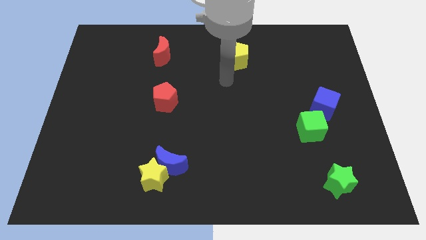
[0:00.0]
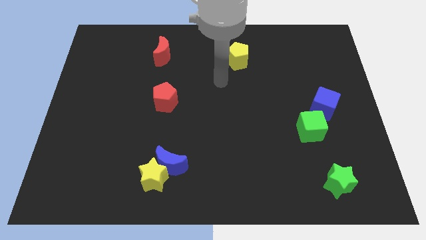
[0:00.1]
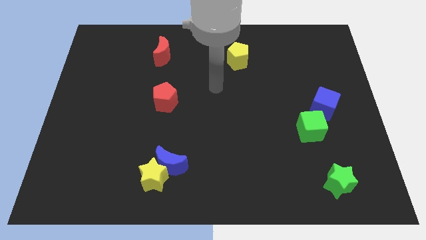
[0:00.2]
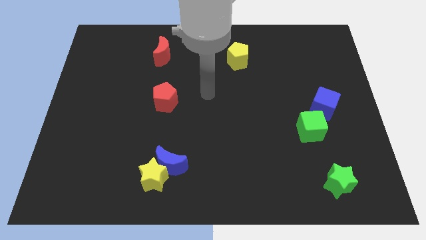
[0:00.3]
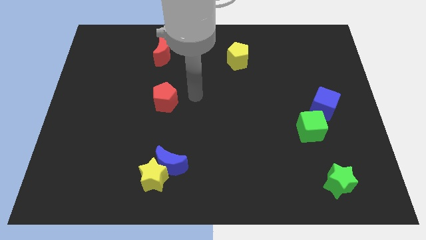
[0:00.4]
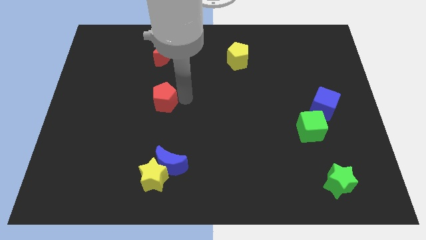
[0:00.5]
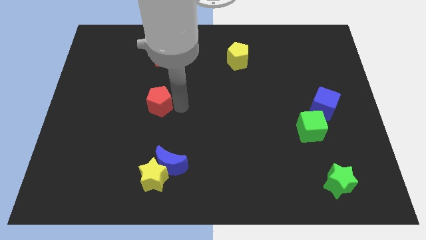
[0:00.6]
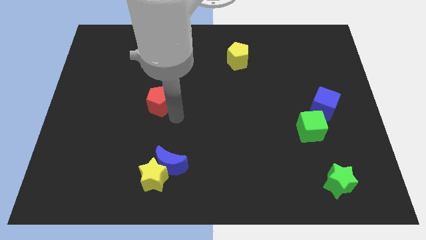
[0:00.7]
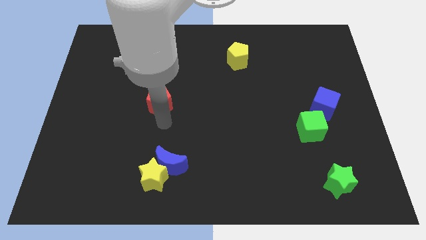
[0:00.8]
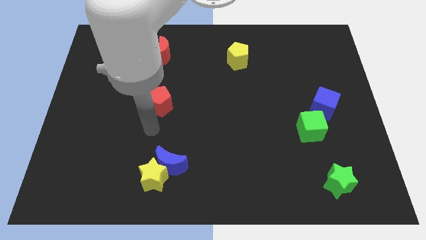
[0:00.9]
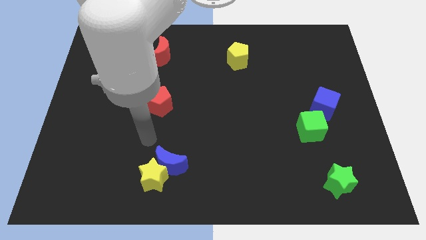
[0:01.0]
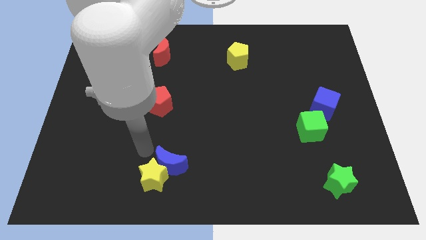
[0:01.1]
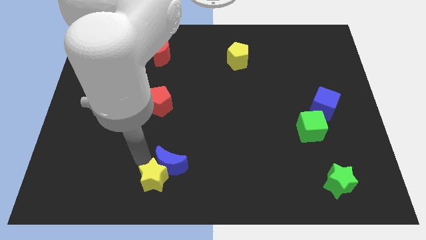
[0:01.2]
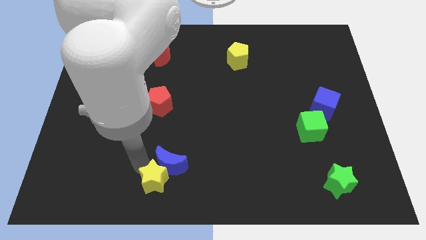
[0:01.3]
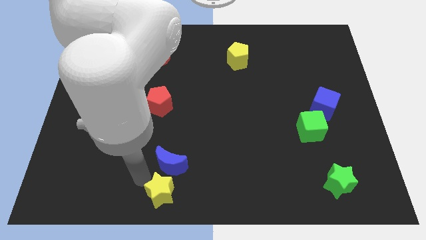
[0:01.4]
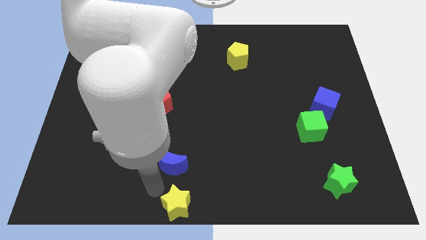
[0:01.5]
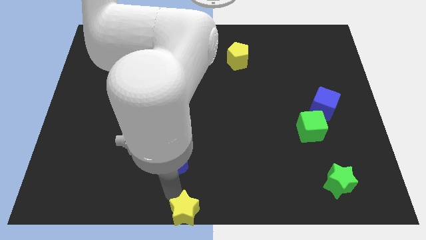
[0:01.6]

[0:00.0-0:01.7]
move the blue moon away from the yellow star

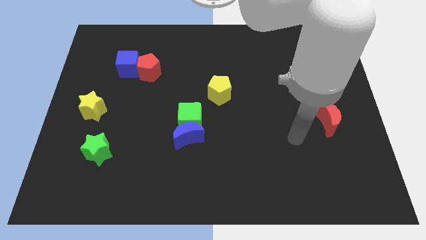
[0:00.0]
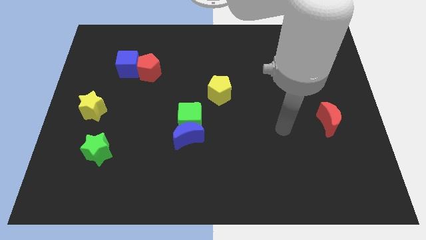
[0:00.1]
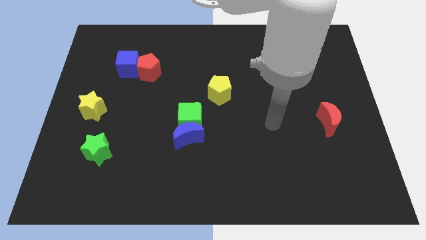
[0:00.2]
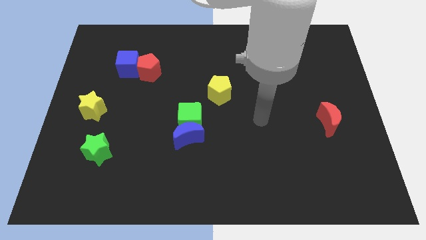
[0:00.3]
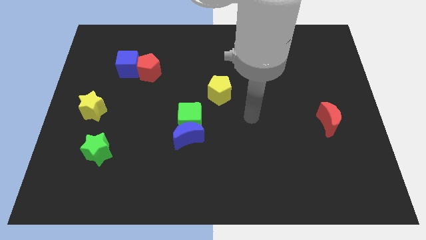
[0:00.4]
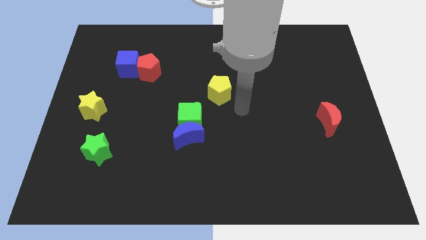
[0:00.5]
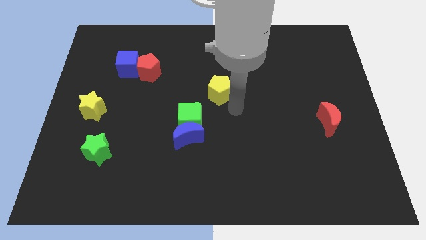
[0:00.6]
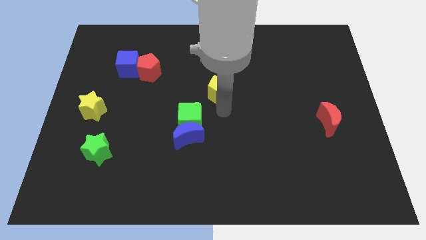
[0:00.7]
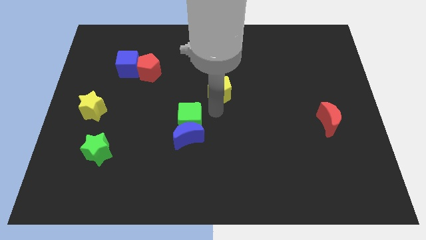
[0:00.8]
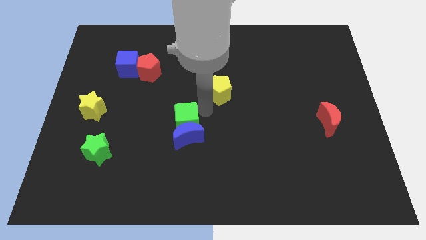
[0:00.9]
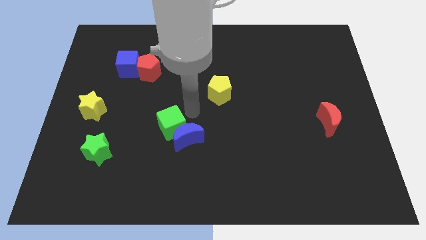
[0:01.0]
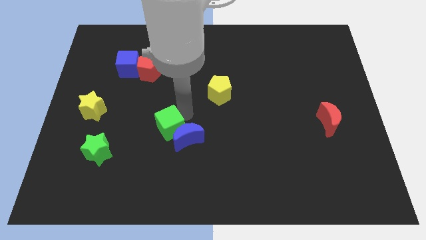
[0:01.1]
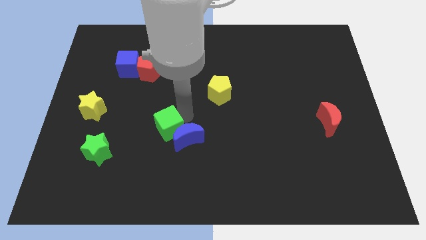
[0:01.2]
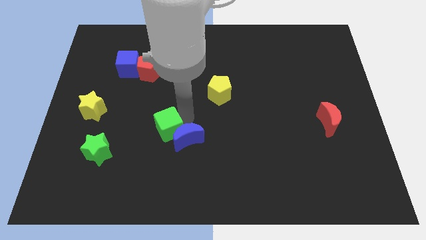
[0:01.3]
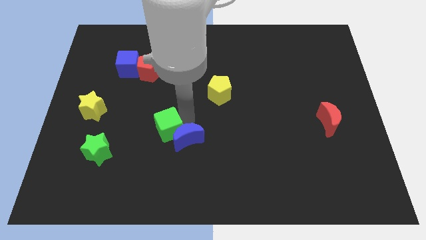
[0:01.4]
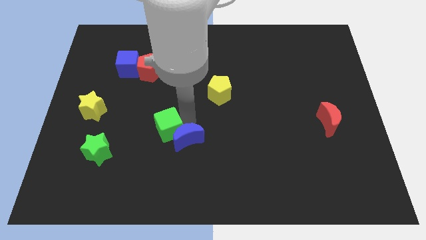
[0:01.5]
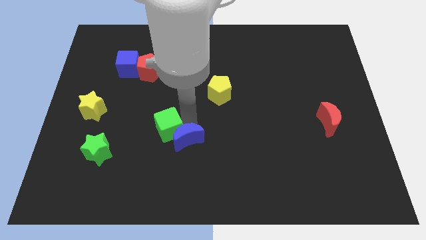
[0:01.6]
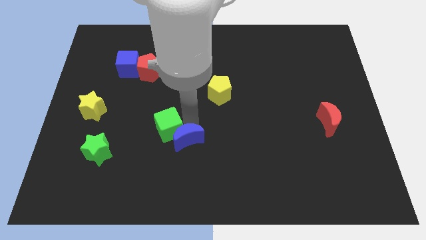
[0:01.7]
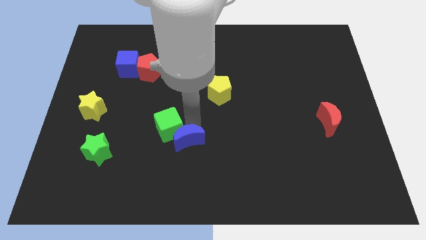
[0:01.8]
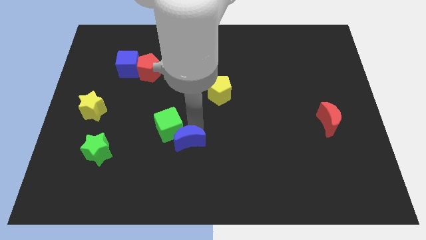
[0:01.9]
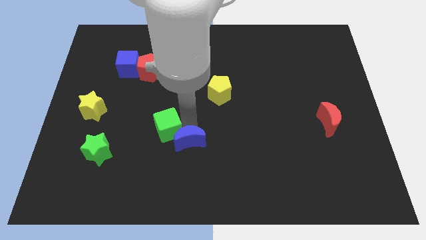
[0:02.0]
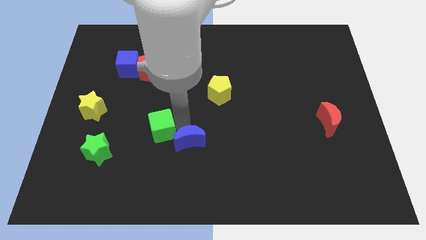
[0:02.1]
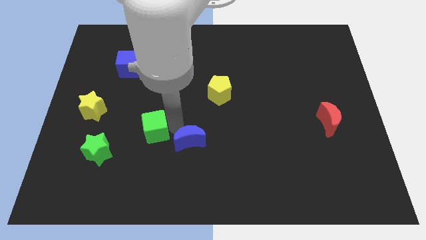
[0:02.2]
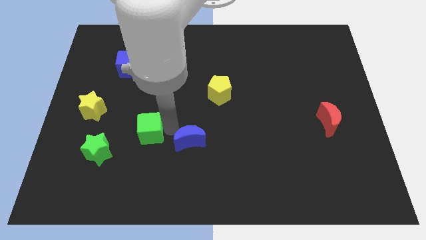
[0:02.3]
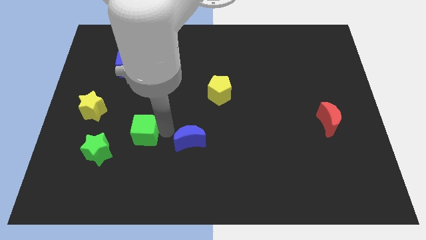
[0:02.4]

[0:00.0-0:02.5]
move the blue moon away from the green cube

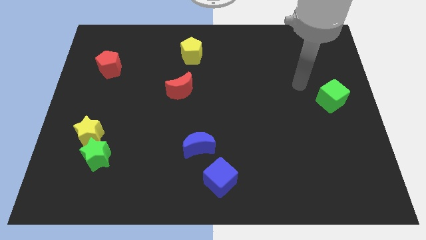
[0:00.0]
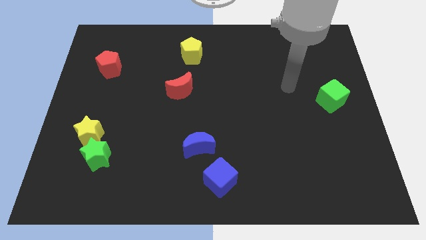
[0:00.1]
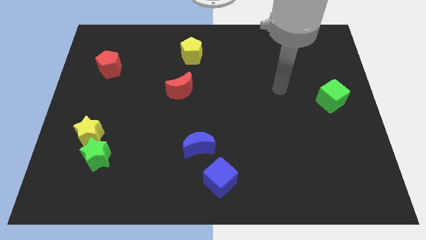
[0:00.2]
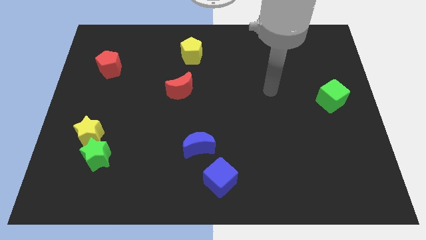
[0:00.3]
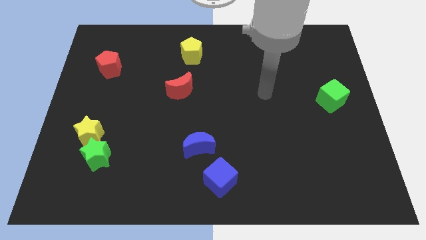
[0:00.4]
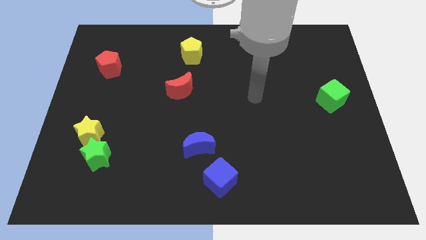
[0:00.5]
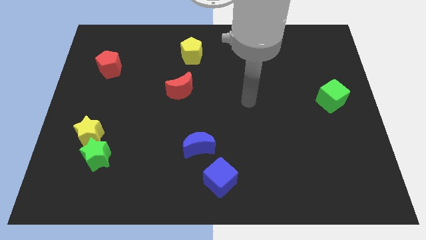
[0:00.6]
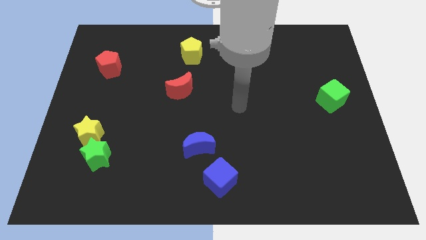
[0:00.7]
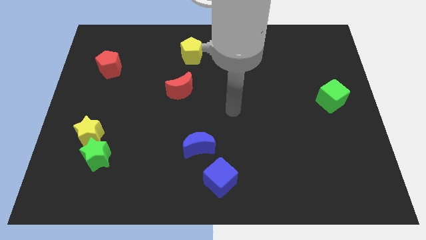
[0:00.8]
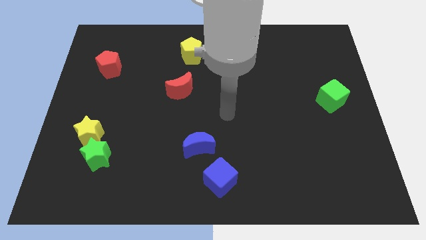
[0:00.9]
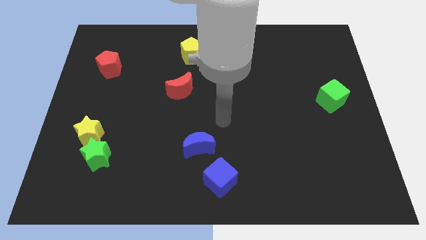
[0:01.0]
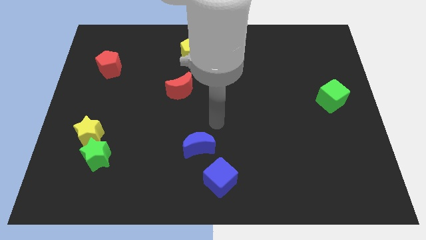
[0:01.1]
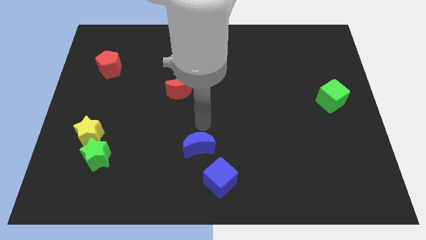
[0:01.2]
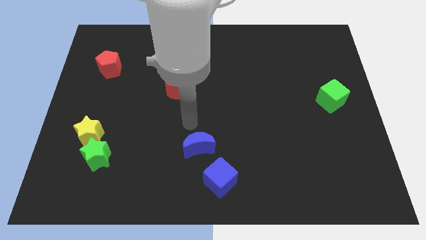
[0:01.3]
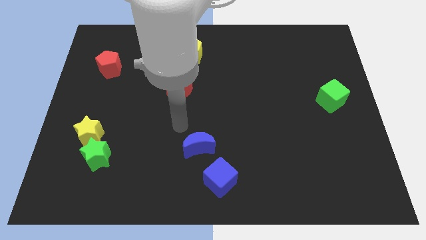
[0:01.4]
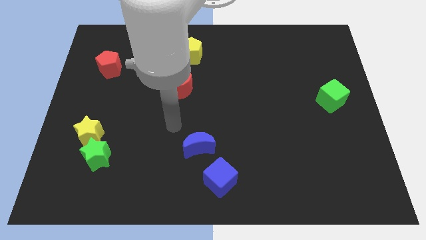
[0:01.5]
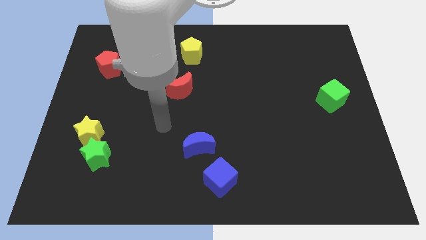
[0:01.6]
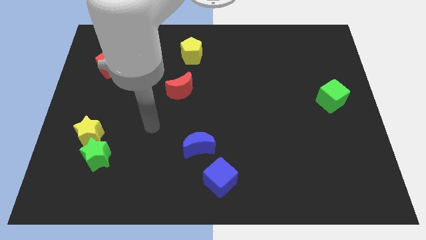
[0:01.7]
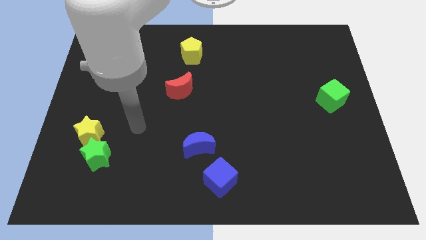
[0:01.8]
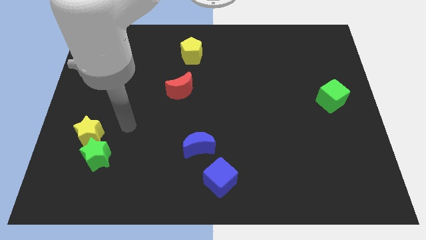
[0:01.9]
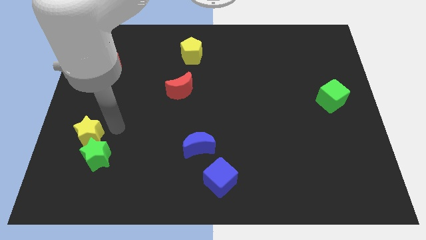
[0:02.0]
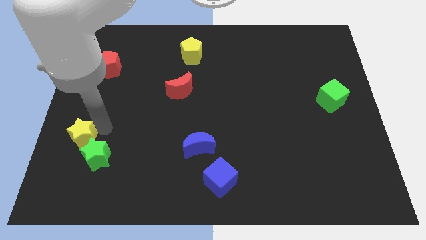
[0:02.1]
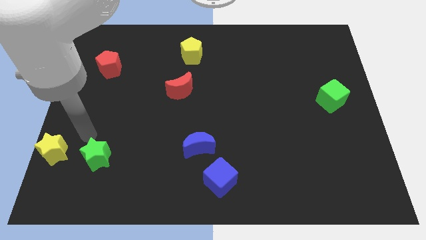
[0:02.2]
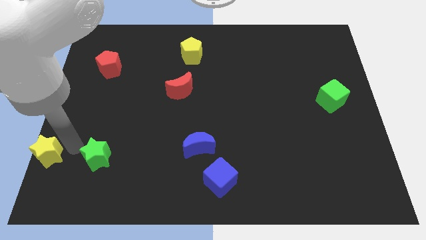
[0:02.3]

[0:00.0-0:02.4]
pull the green star apart from the yellow star

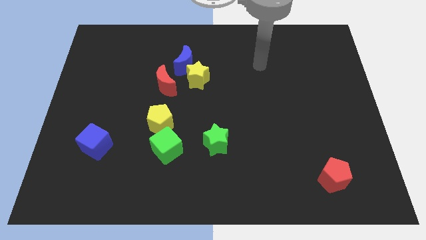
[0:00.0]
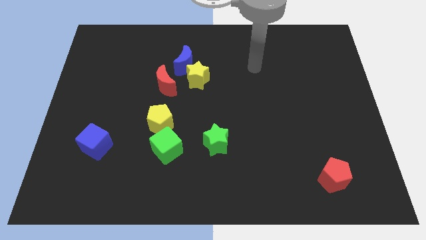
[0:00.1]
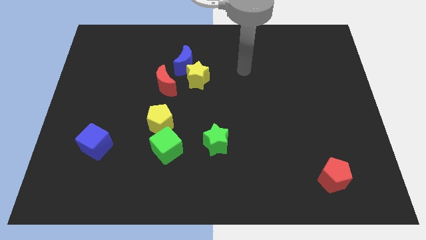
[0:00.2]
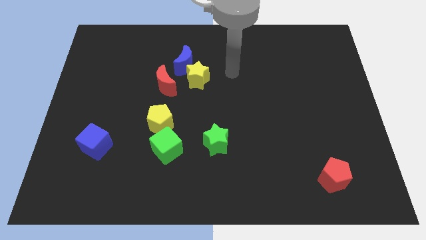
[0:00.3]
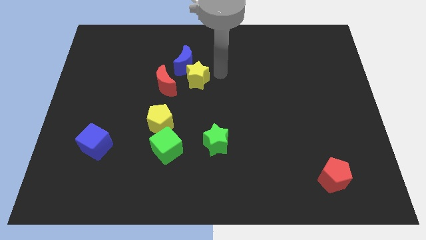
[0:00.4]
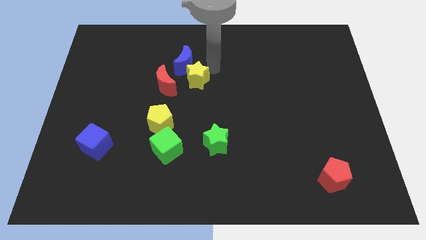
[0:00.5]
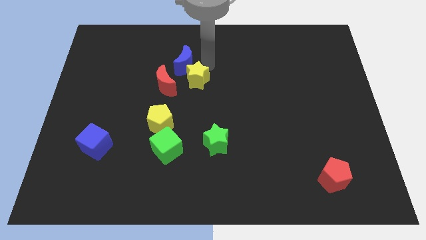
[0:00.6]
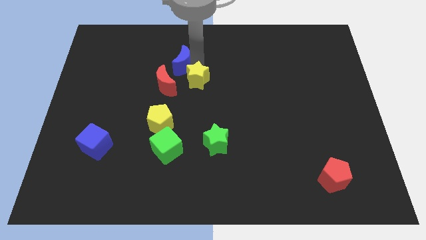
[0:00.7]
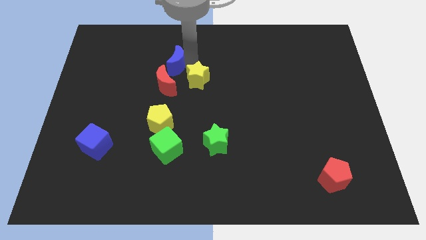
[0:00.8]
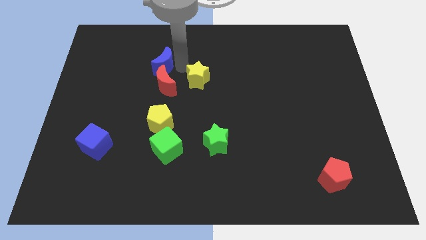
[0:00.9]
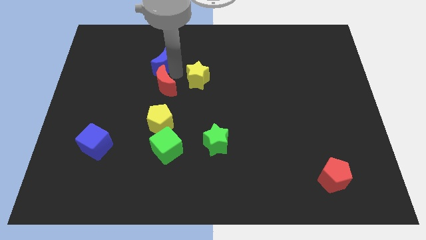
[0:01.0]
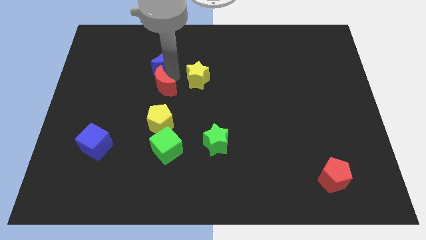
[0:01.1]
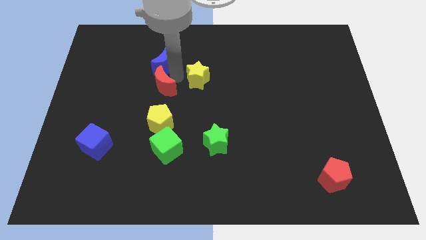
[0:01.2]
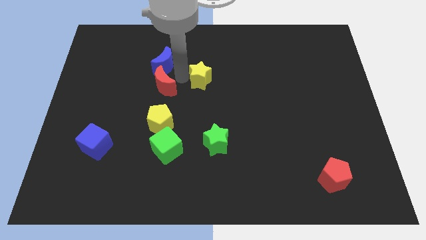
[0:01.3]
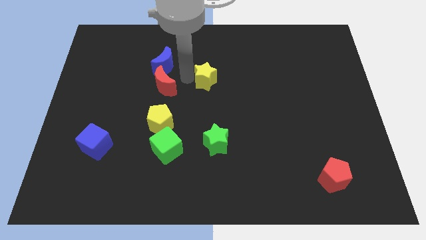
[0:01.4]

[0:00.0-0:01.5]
pull the yellow star apart from the blue moon and red moon

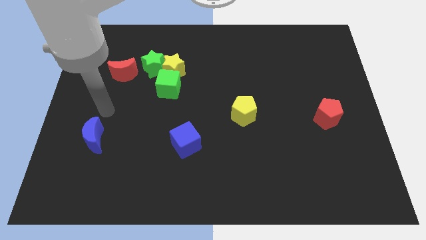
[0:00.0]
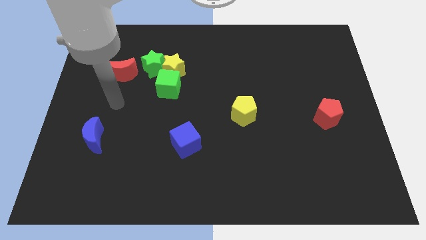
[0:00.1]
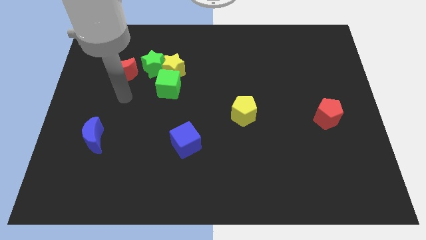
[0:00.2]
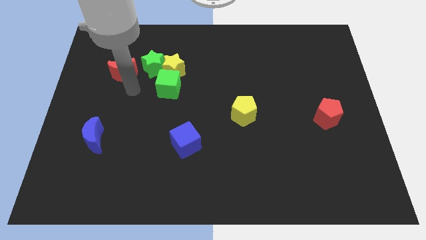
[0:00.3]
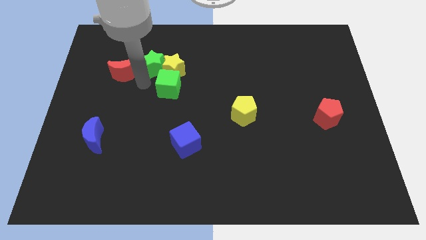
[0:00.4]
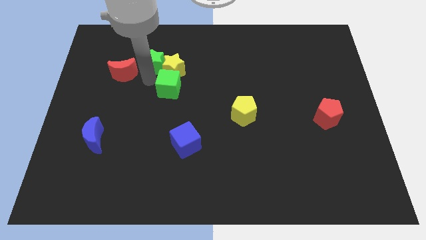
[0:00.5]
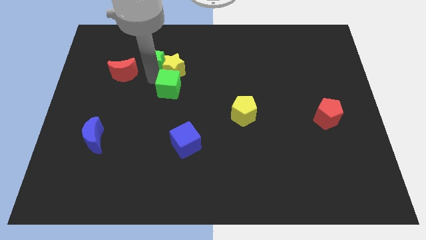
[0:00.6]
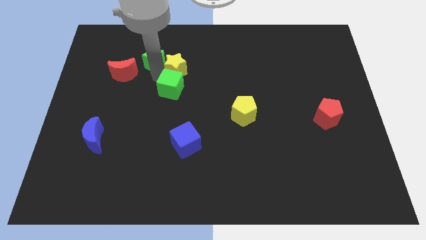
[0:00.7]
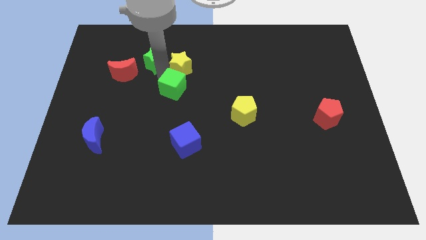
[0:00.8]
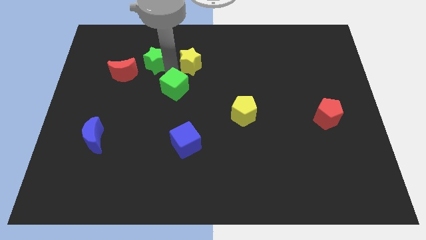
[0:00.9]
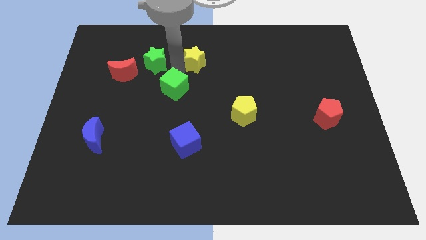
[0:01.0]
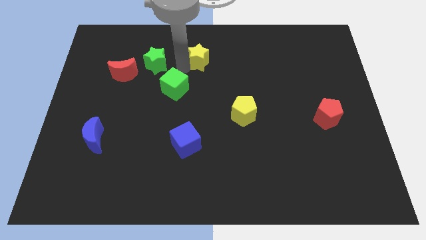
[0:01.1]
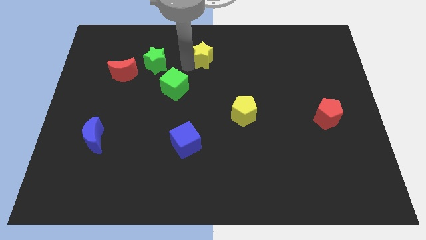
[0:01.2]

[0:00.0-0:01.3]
separate the yellow star from the green star and green cube
